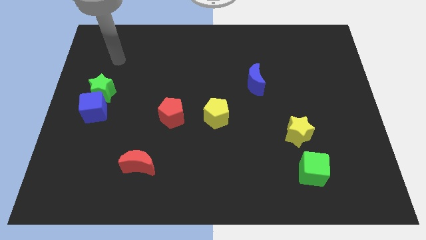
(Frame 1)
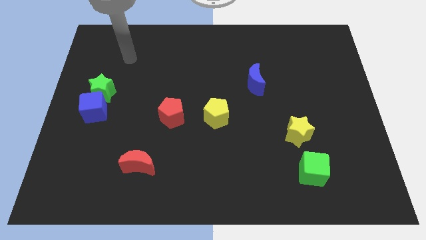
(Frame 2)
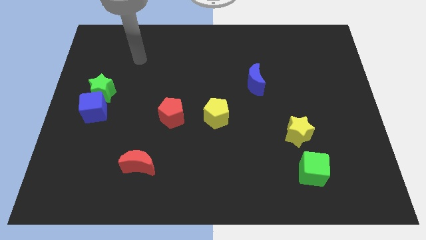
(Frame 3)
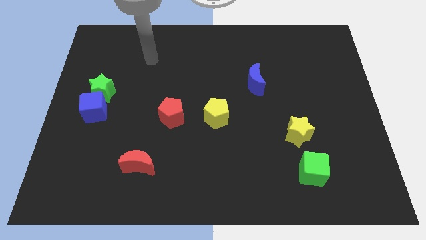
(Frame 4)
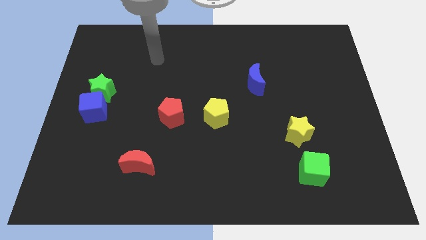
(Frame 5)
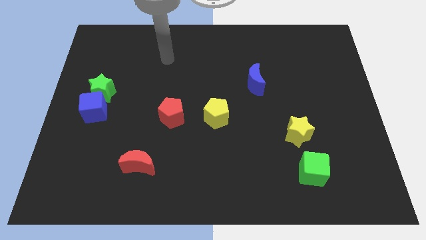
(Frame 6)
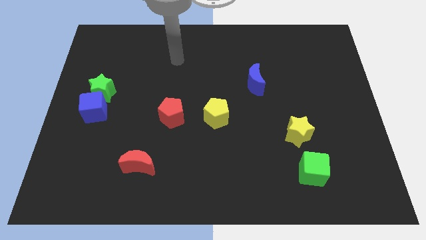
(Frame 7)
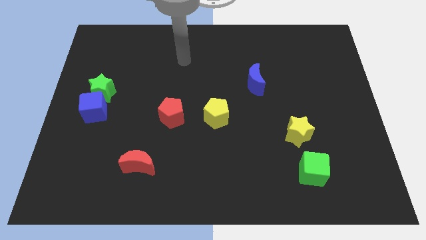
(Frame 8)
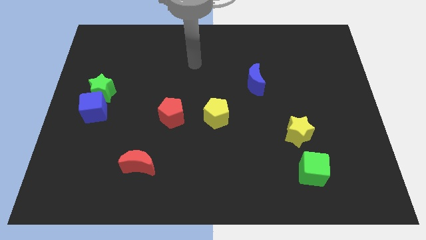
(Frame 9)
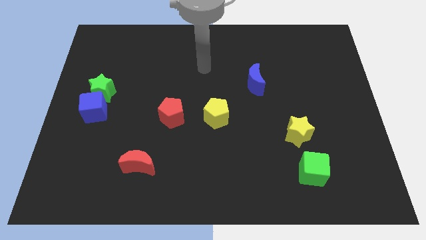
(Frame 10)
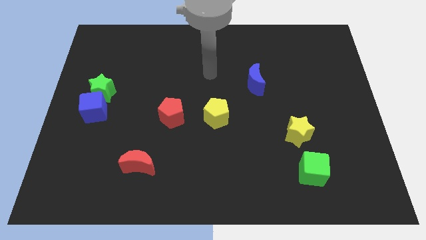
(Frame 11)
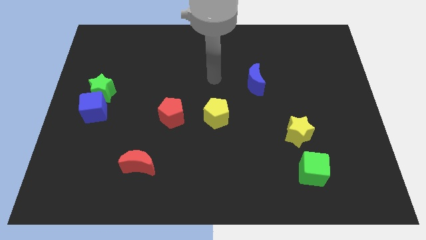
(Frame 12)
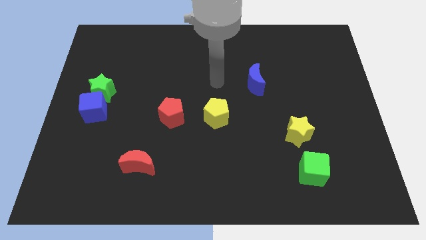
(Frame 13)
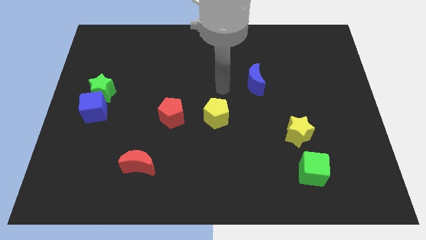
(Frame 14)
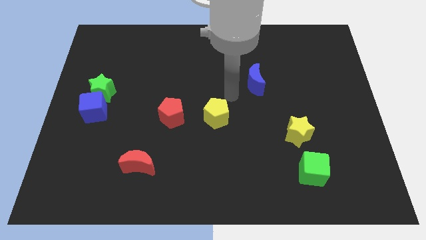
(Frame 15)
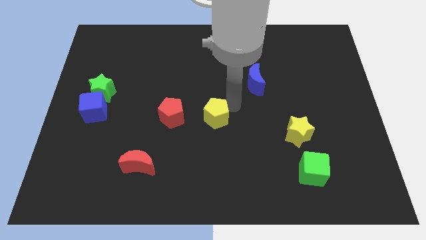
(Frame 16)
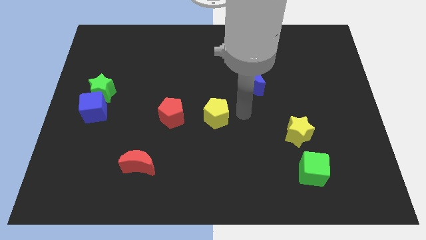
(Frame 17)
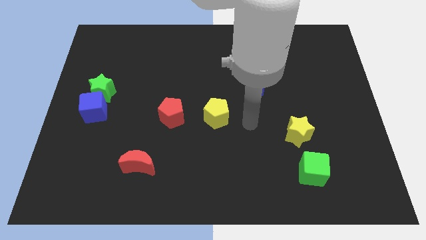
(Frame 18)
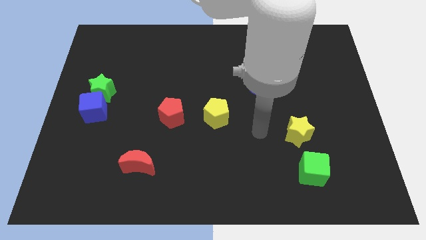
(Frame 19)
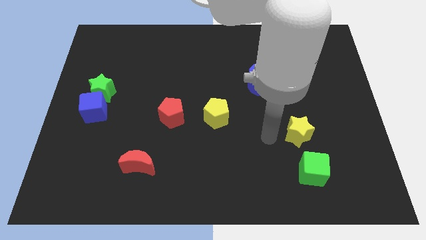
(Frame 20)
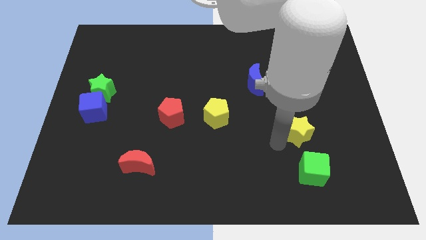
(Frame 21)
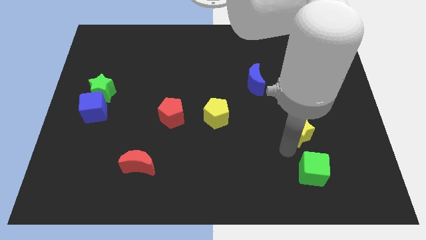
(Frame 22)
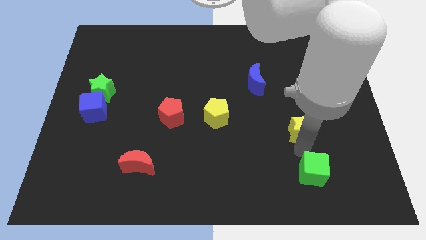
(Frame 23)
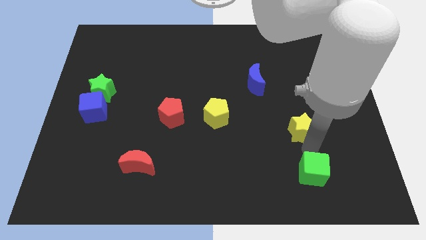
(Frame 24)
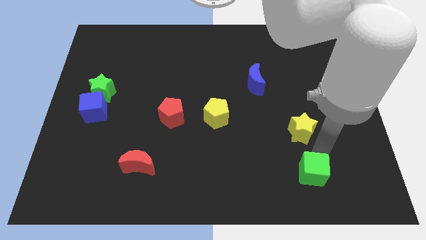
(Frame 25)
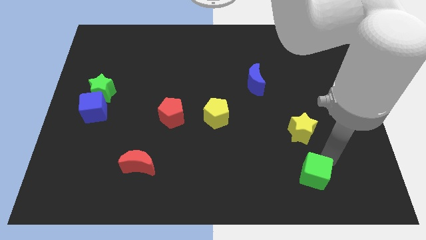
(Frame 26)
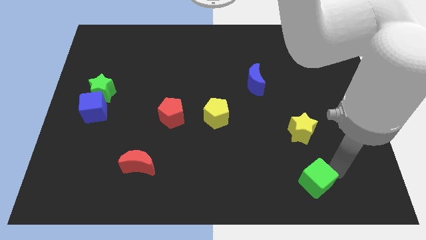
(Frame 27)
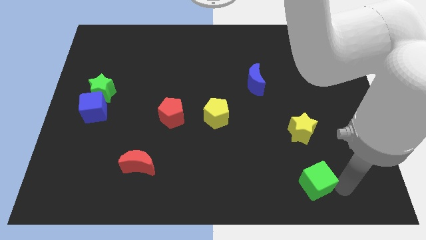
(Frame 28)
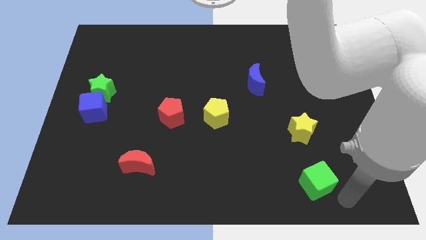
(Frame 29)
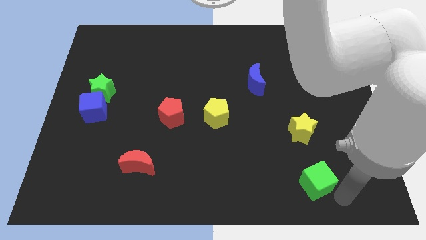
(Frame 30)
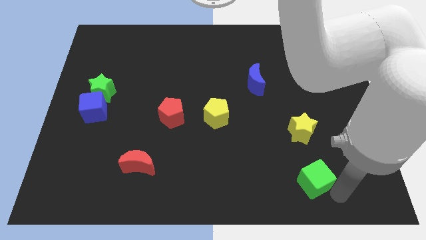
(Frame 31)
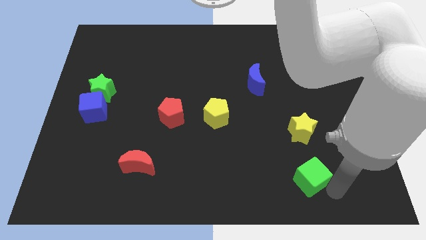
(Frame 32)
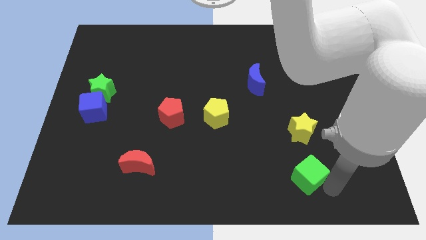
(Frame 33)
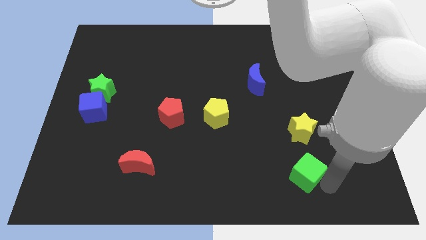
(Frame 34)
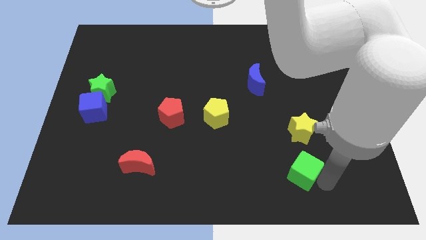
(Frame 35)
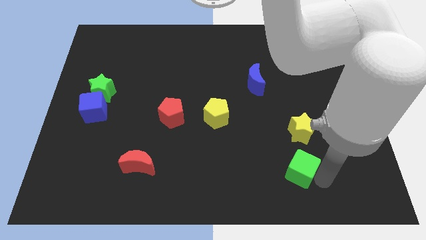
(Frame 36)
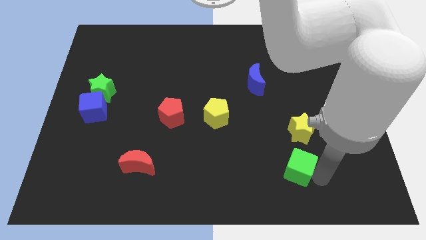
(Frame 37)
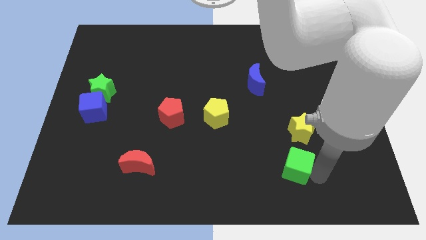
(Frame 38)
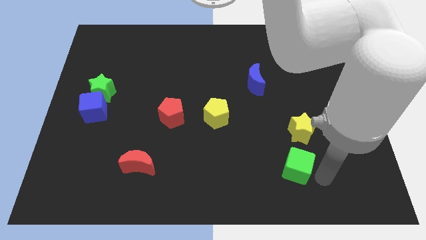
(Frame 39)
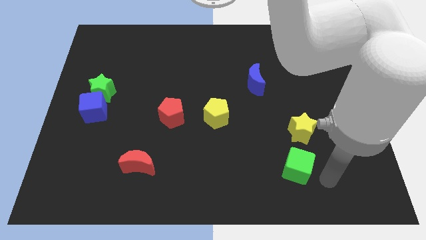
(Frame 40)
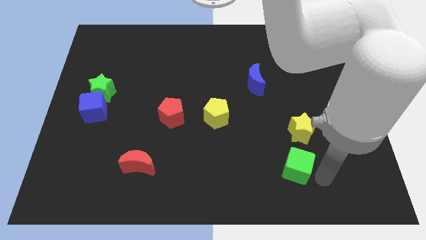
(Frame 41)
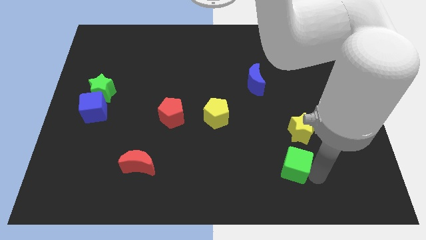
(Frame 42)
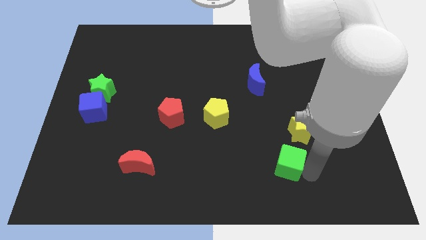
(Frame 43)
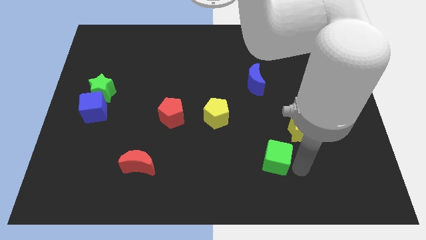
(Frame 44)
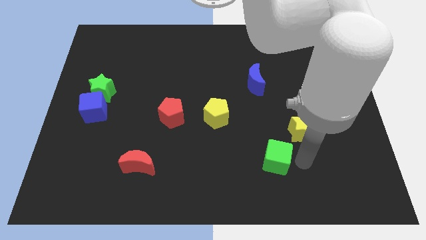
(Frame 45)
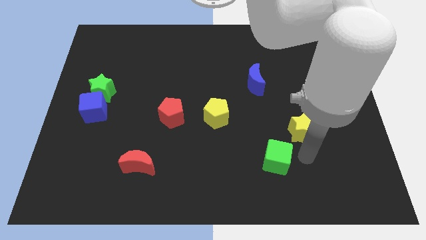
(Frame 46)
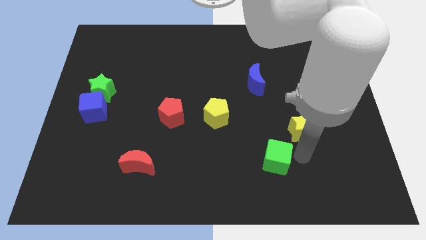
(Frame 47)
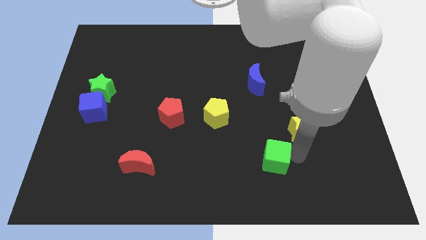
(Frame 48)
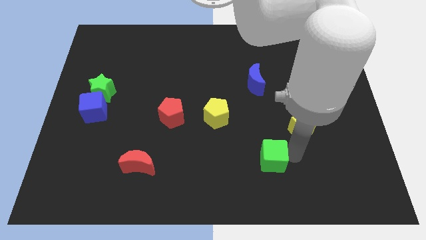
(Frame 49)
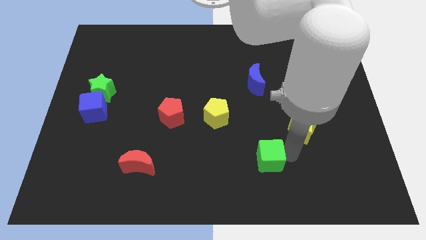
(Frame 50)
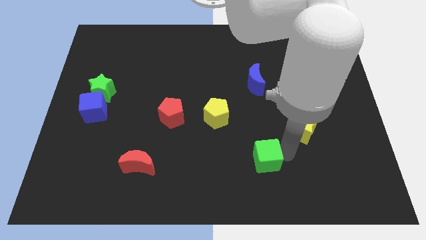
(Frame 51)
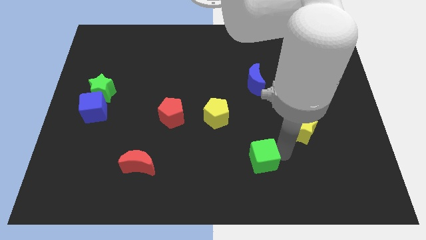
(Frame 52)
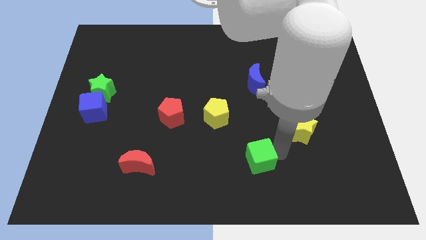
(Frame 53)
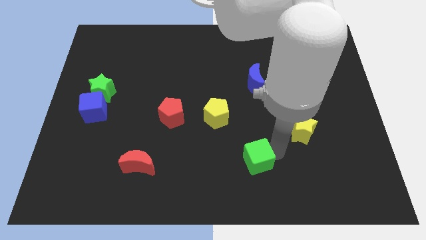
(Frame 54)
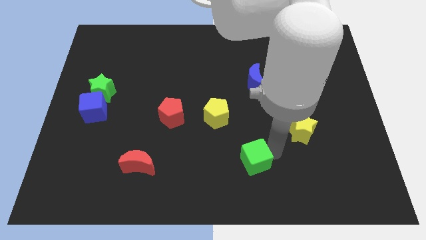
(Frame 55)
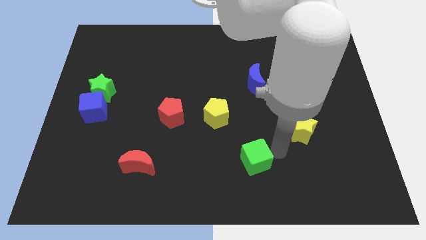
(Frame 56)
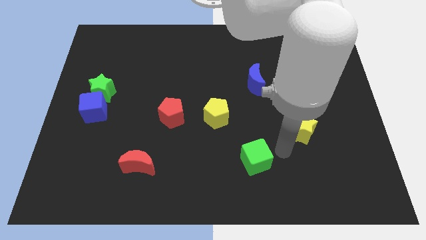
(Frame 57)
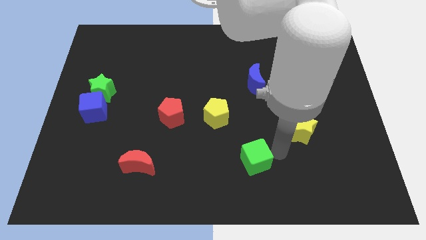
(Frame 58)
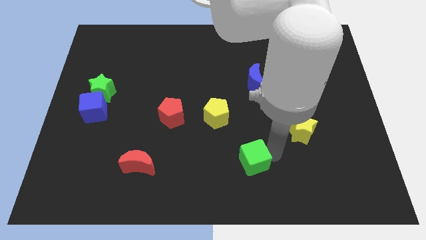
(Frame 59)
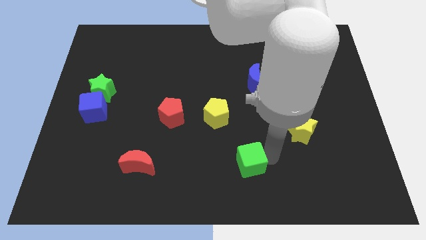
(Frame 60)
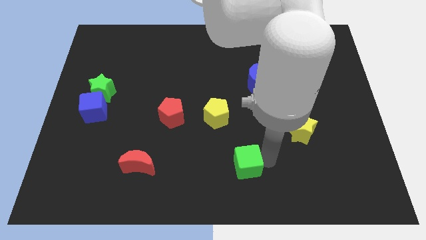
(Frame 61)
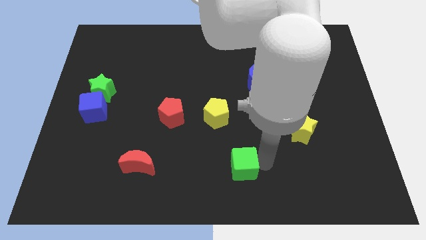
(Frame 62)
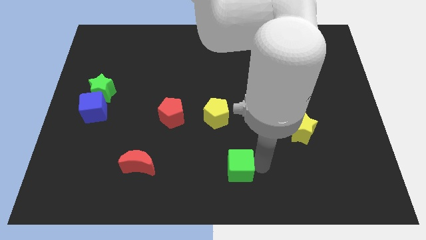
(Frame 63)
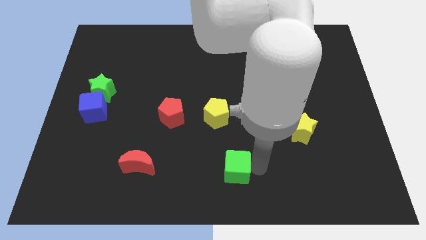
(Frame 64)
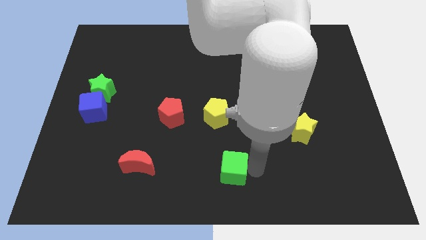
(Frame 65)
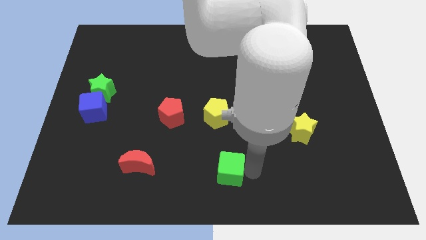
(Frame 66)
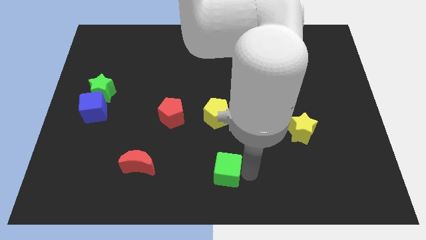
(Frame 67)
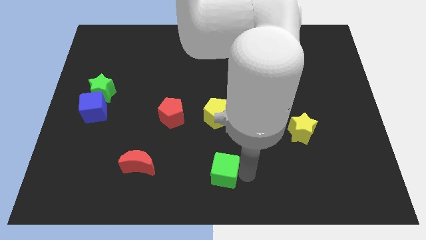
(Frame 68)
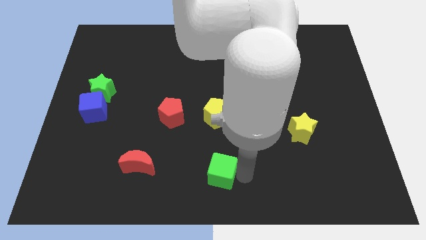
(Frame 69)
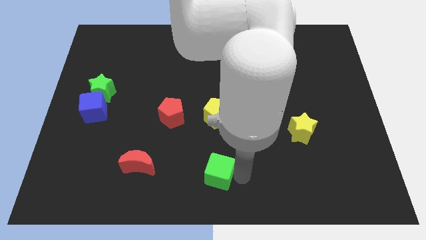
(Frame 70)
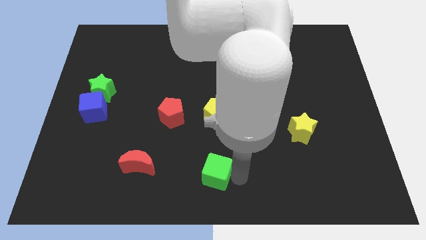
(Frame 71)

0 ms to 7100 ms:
slide the green cube to the left

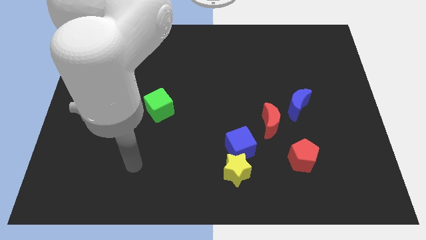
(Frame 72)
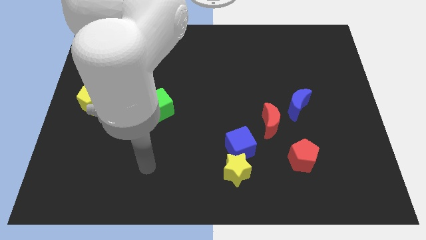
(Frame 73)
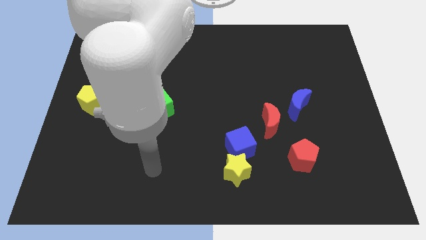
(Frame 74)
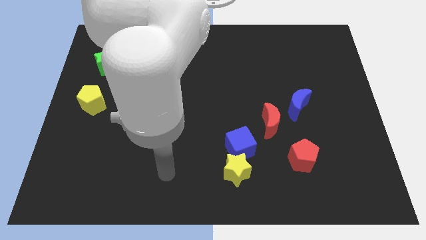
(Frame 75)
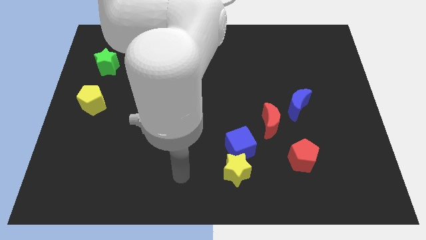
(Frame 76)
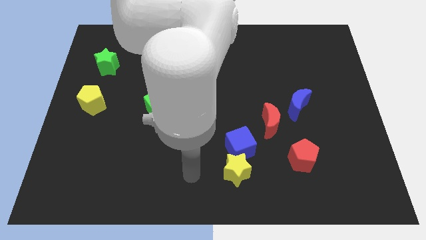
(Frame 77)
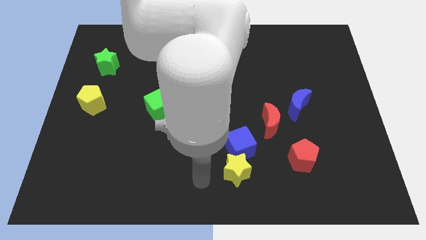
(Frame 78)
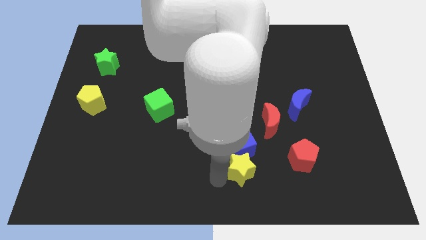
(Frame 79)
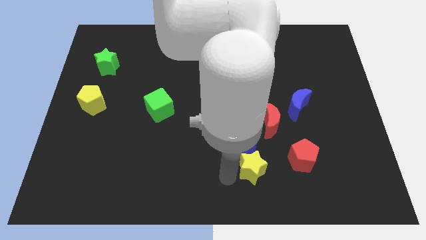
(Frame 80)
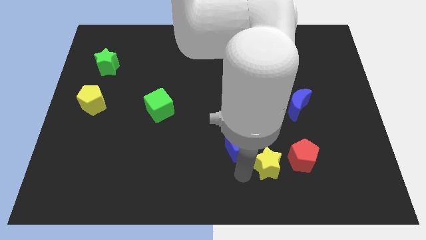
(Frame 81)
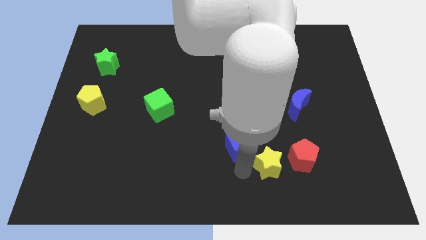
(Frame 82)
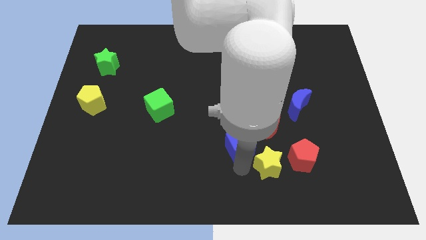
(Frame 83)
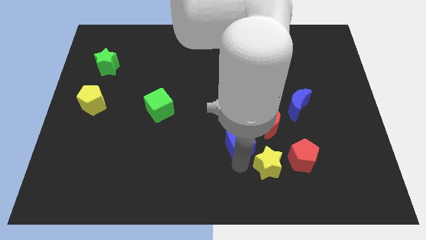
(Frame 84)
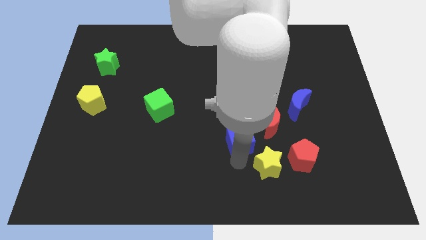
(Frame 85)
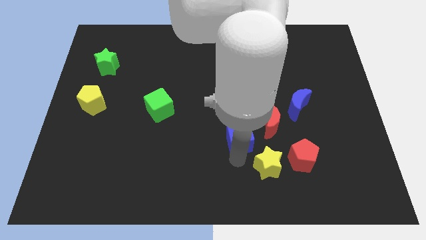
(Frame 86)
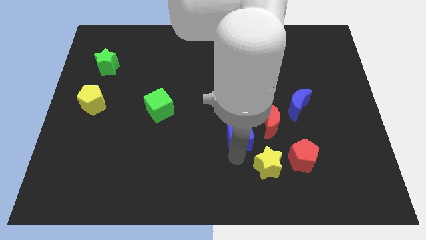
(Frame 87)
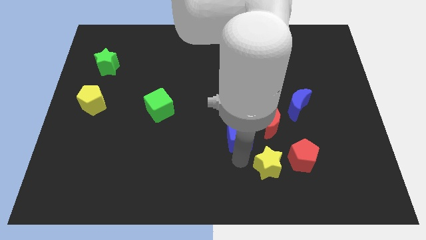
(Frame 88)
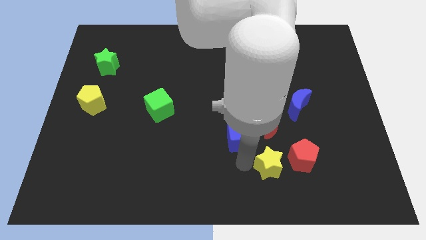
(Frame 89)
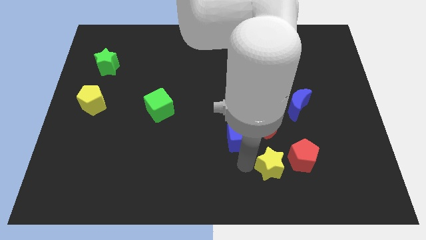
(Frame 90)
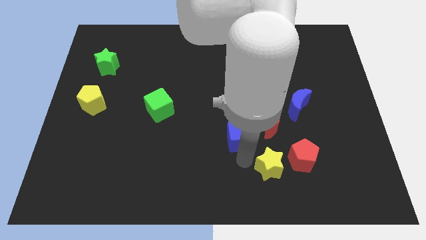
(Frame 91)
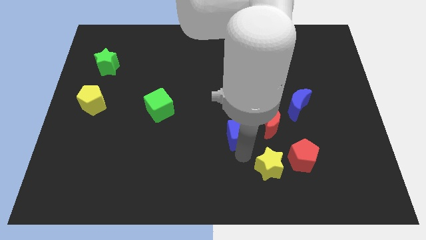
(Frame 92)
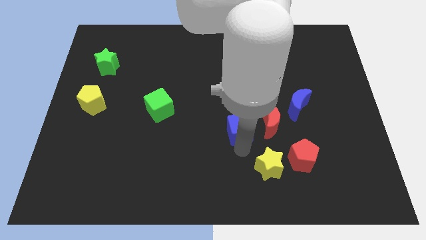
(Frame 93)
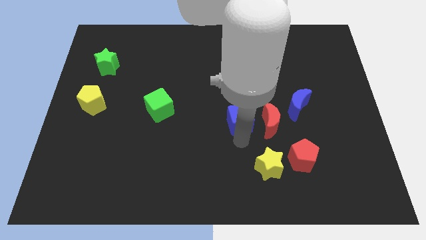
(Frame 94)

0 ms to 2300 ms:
push the blue cube upwards a little bit
